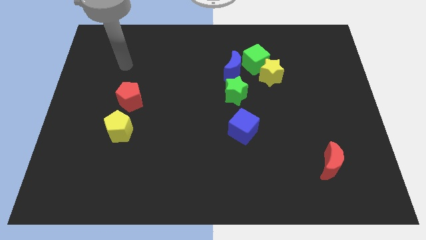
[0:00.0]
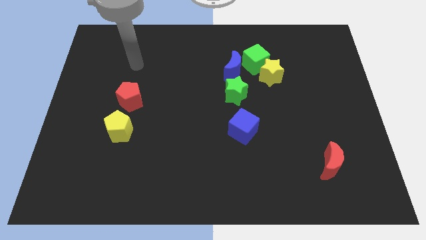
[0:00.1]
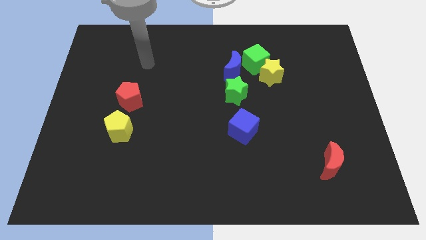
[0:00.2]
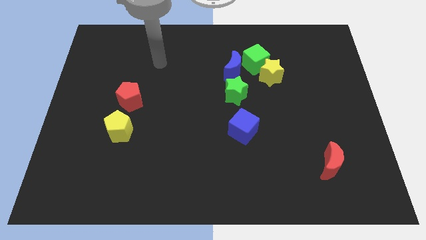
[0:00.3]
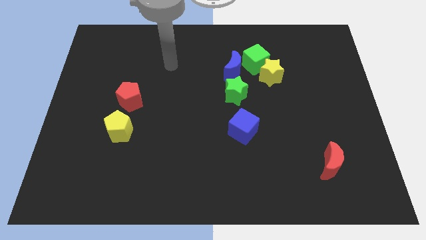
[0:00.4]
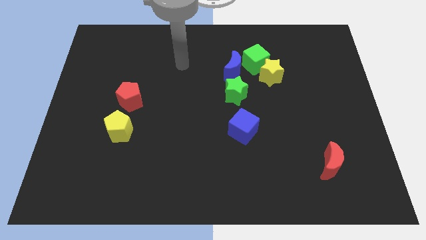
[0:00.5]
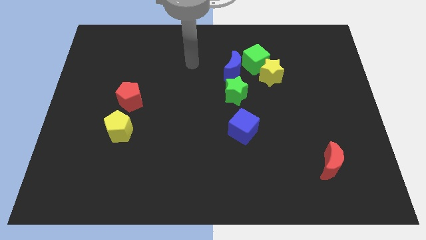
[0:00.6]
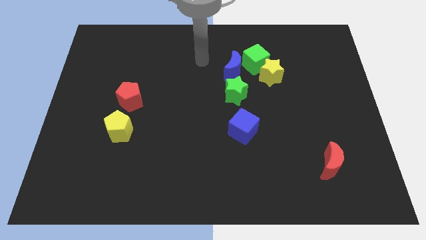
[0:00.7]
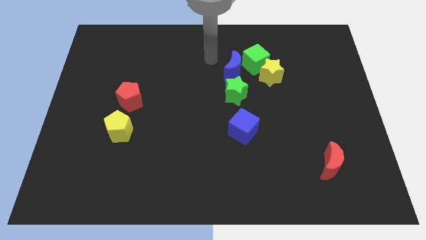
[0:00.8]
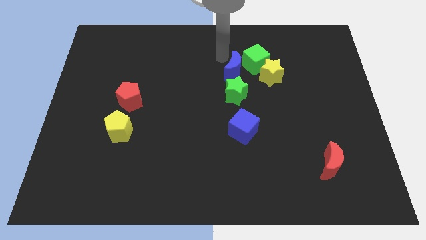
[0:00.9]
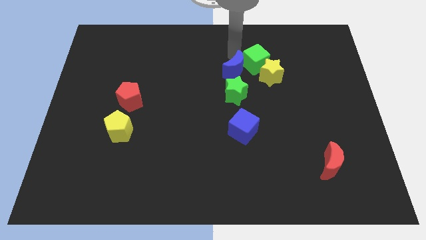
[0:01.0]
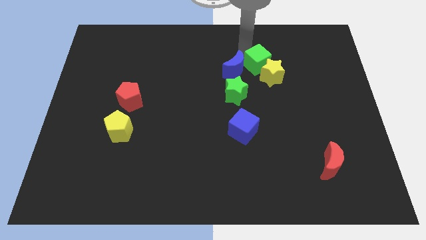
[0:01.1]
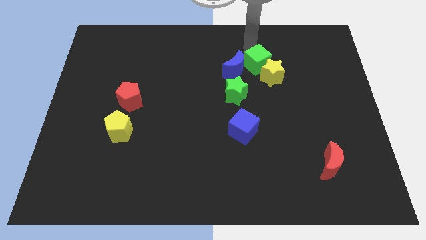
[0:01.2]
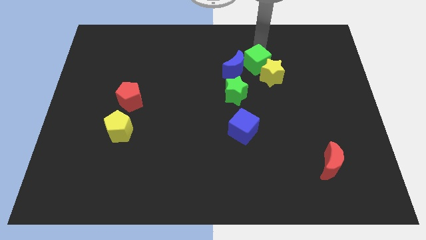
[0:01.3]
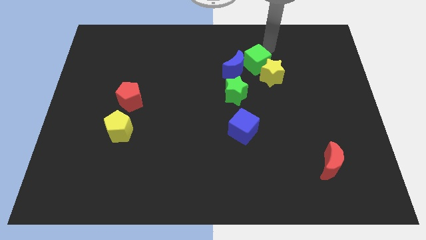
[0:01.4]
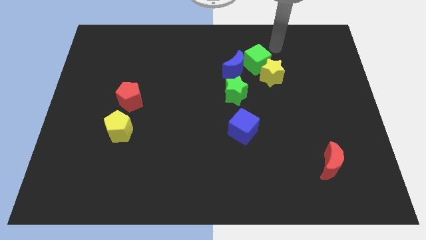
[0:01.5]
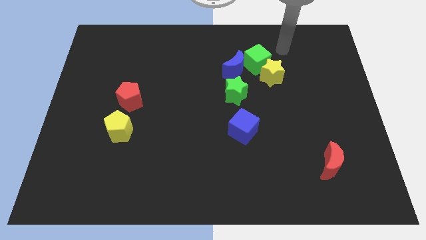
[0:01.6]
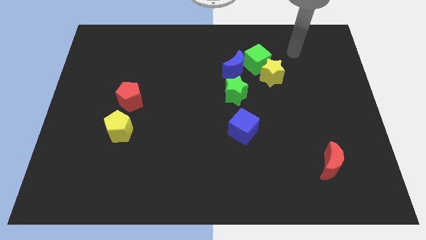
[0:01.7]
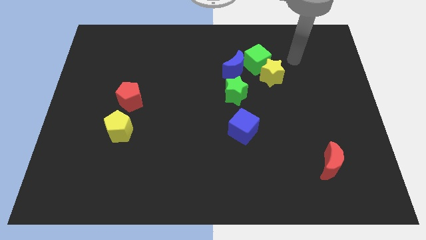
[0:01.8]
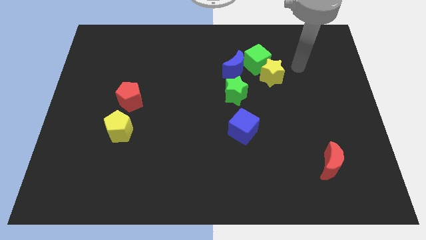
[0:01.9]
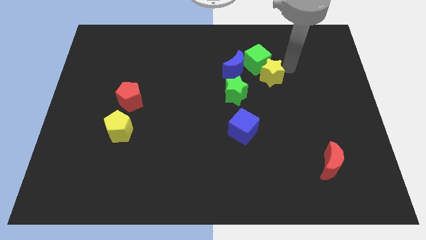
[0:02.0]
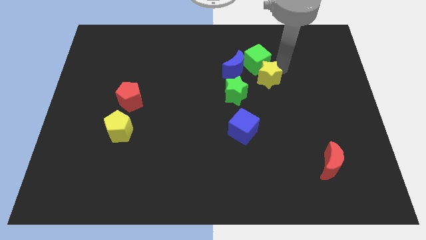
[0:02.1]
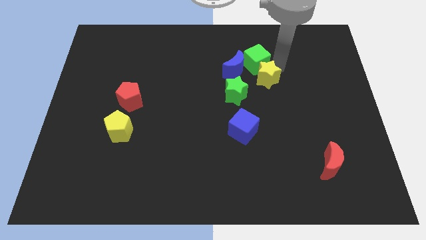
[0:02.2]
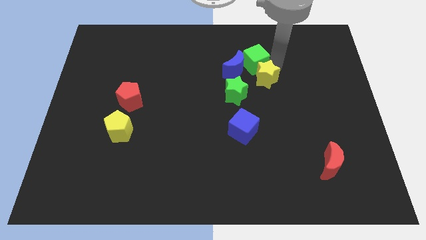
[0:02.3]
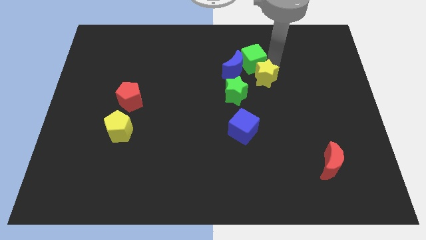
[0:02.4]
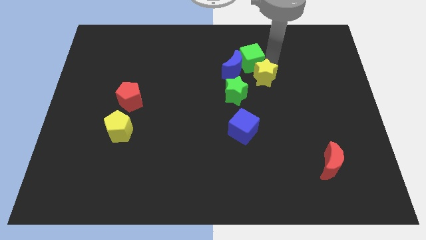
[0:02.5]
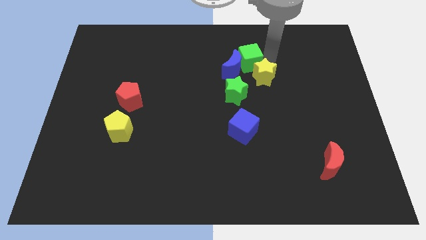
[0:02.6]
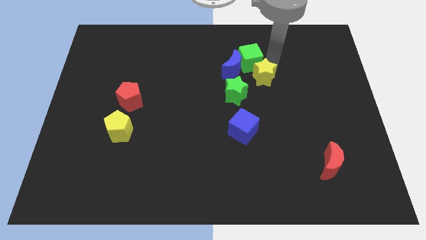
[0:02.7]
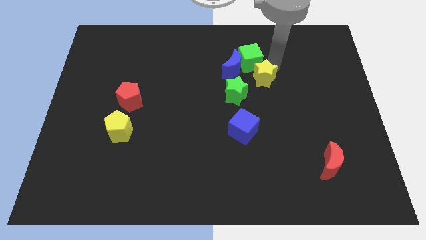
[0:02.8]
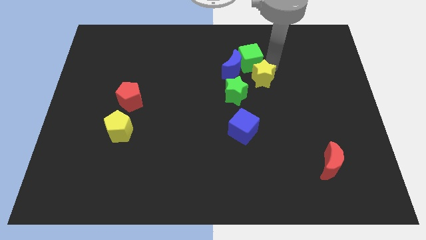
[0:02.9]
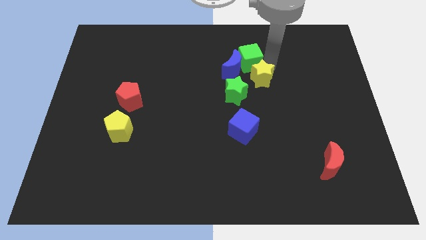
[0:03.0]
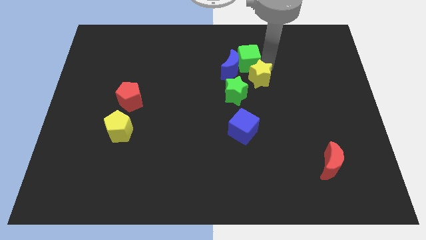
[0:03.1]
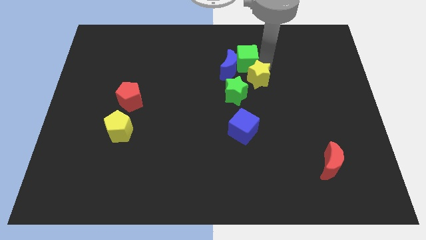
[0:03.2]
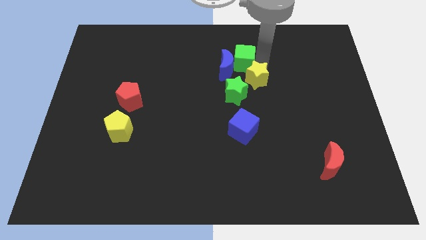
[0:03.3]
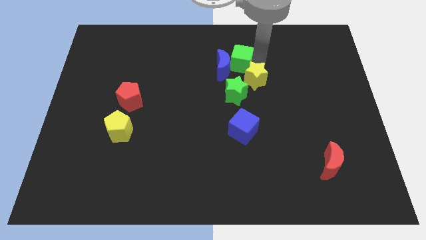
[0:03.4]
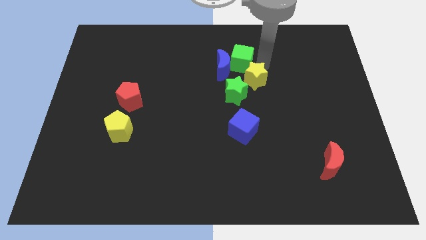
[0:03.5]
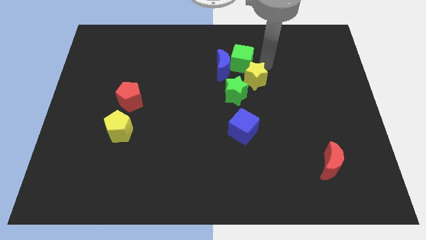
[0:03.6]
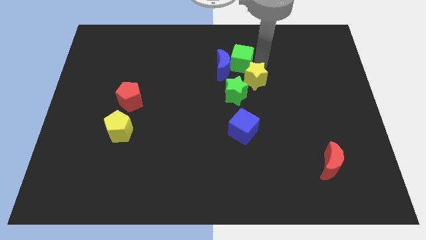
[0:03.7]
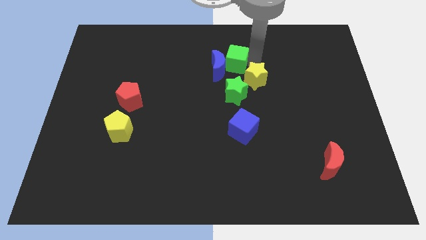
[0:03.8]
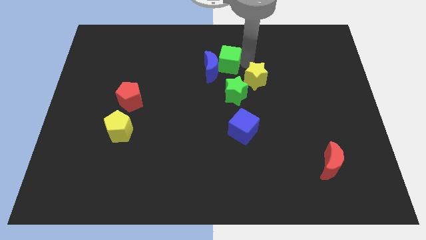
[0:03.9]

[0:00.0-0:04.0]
slightly slide the green cube left

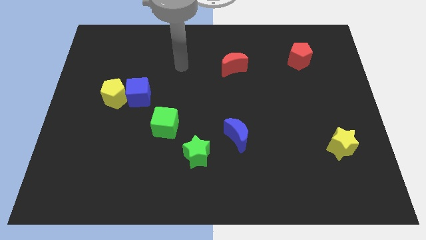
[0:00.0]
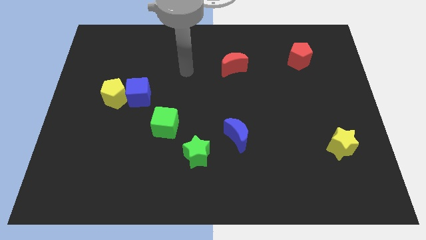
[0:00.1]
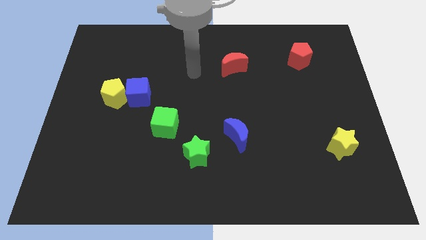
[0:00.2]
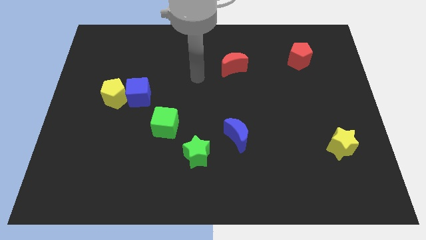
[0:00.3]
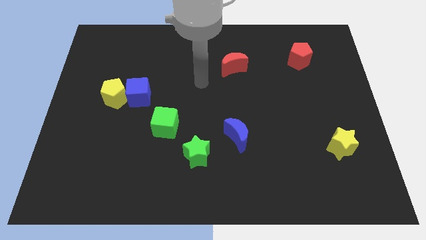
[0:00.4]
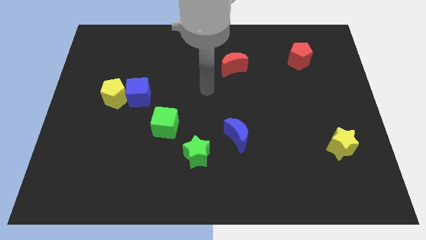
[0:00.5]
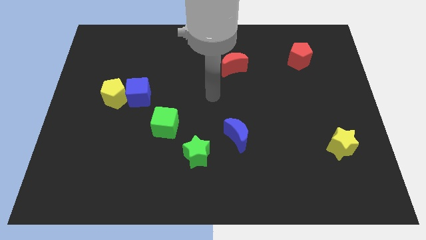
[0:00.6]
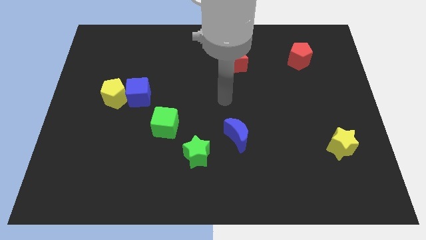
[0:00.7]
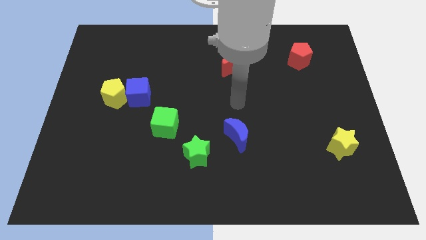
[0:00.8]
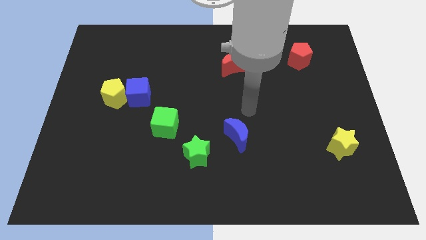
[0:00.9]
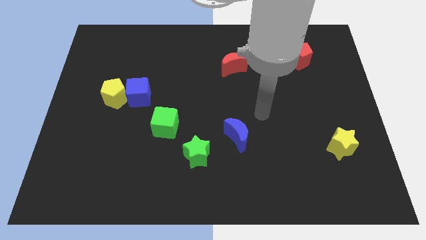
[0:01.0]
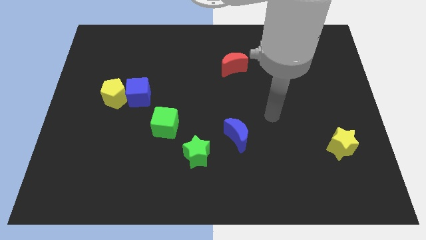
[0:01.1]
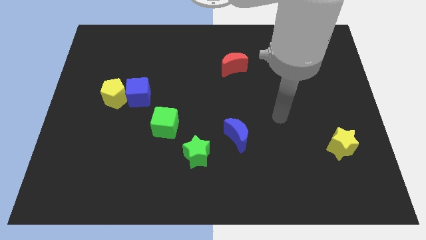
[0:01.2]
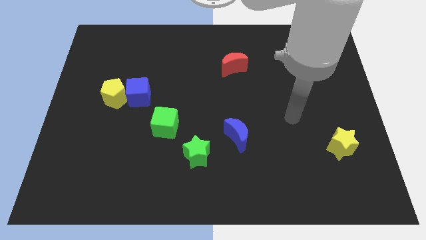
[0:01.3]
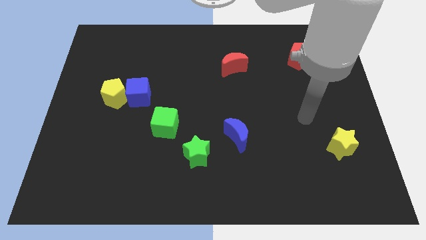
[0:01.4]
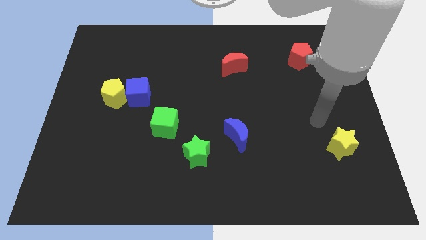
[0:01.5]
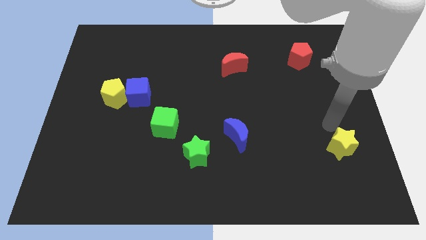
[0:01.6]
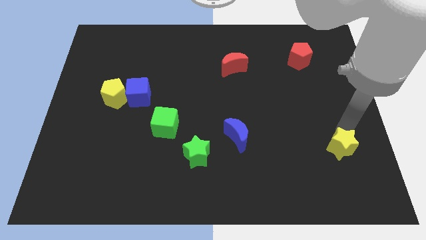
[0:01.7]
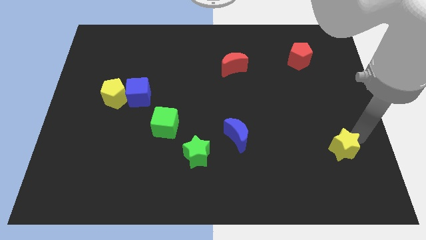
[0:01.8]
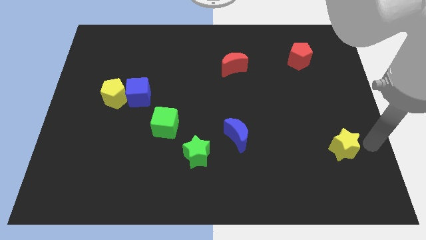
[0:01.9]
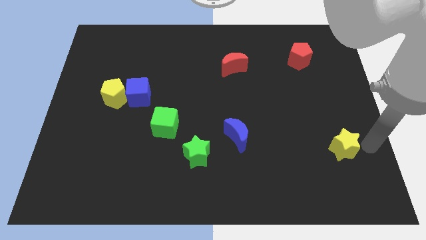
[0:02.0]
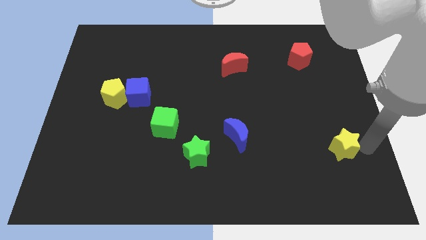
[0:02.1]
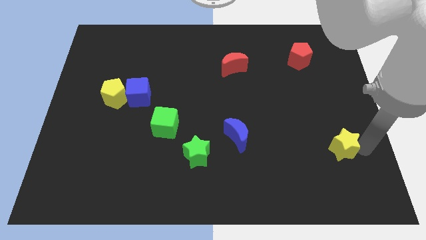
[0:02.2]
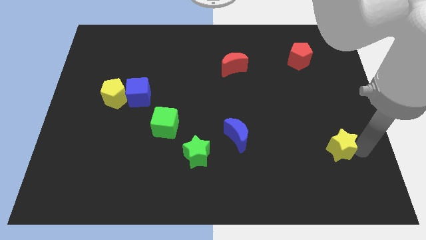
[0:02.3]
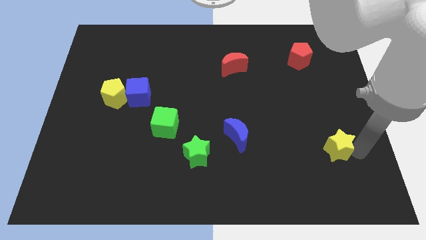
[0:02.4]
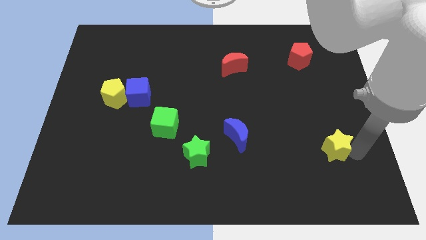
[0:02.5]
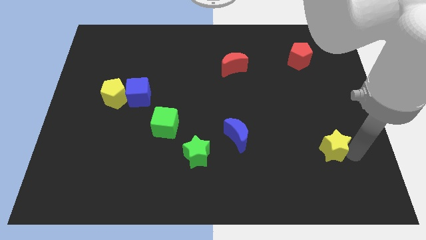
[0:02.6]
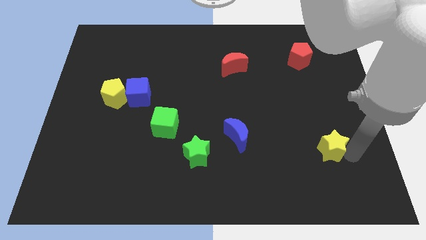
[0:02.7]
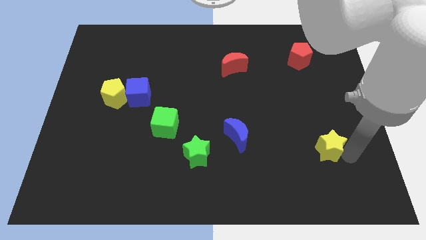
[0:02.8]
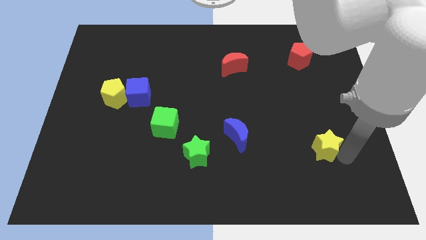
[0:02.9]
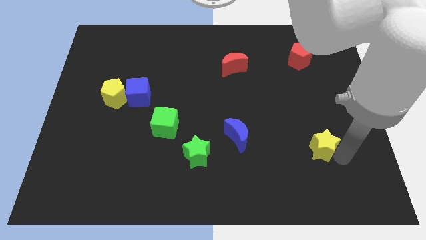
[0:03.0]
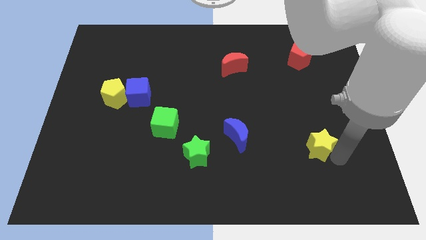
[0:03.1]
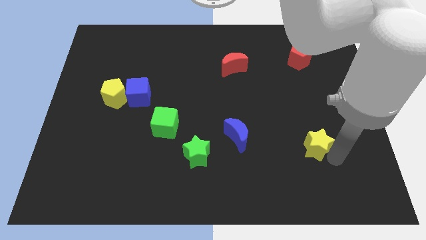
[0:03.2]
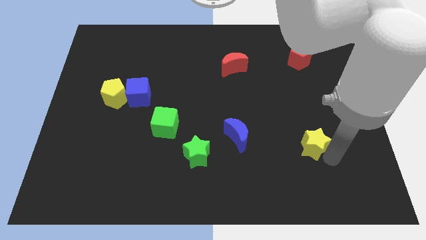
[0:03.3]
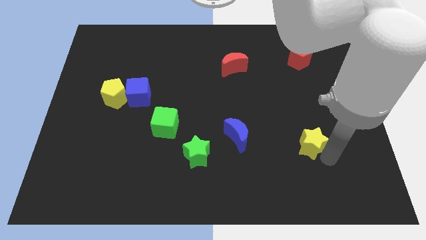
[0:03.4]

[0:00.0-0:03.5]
slide the yellow star to the left a little

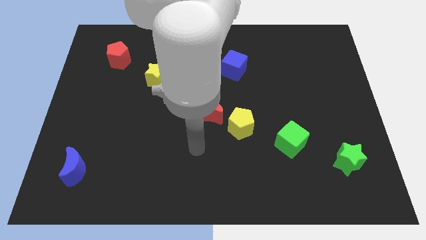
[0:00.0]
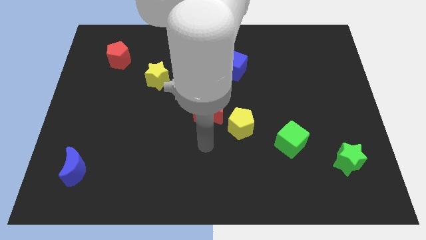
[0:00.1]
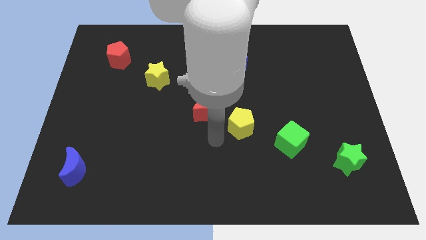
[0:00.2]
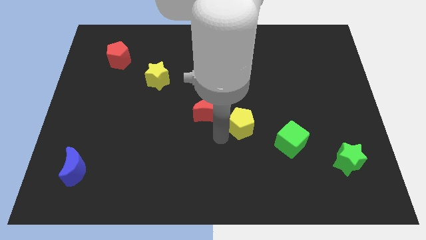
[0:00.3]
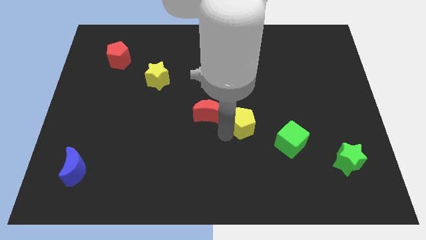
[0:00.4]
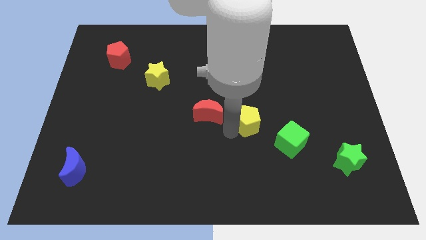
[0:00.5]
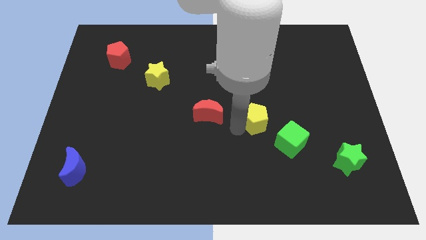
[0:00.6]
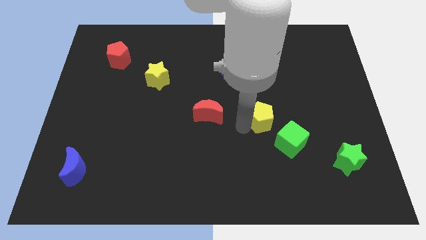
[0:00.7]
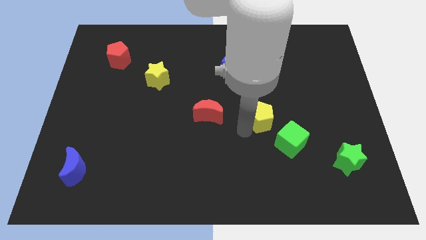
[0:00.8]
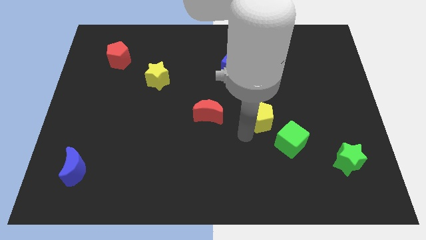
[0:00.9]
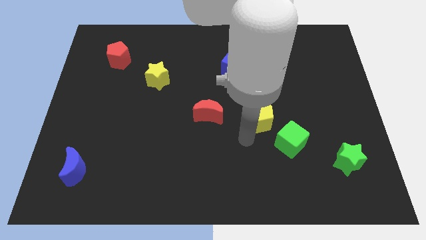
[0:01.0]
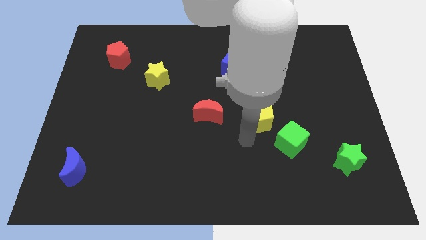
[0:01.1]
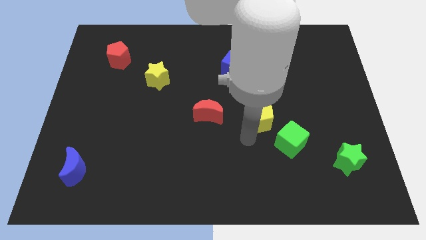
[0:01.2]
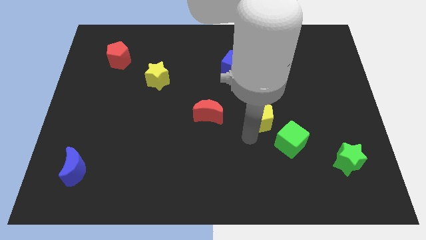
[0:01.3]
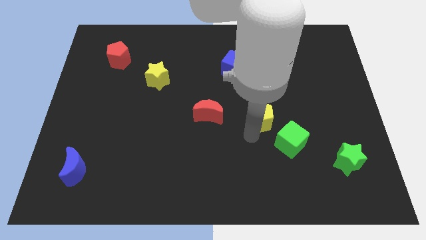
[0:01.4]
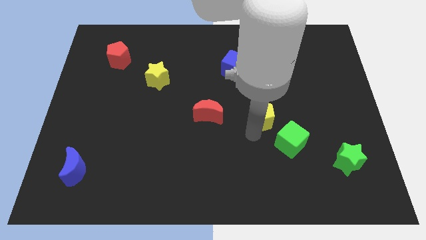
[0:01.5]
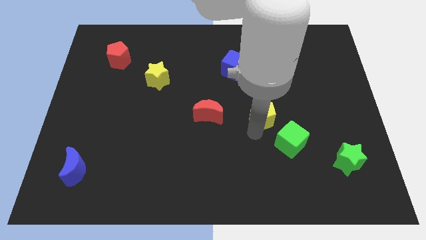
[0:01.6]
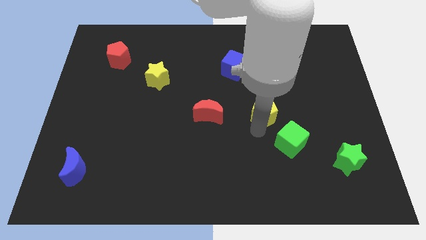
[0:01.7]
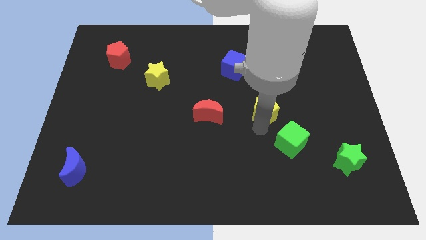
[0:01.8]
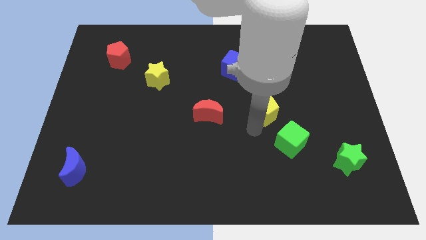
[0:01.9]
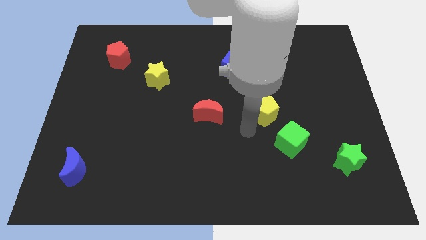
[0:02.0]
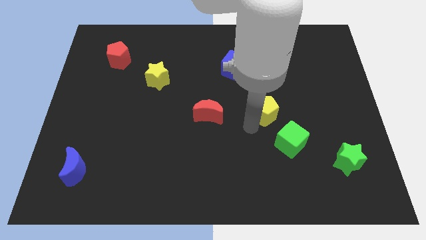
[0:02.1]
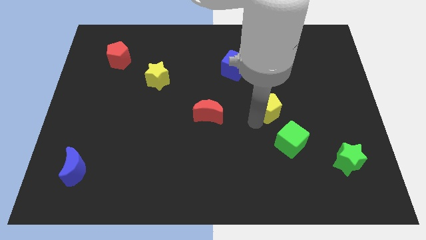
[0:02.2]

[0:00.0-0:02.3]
slightly slide the yellow pentagon upwards and right diagonally
